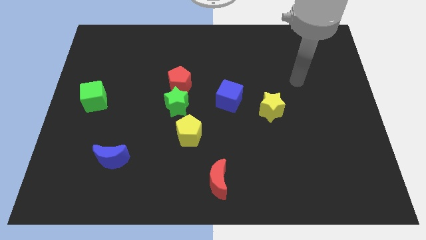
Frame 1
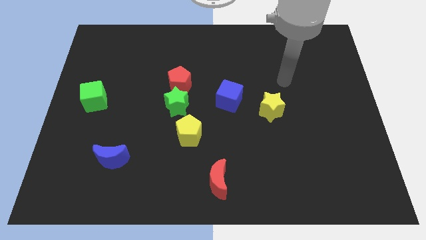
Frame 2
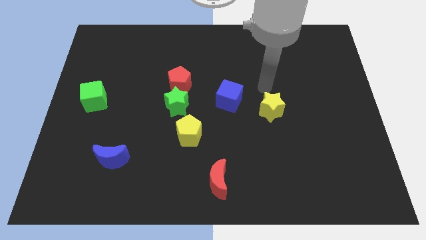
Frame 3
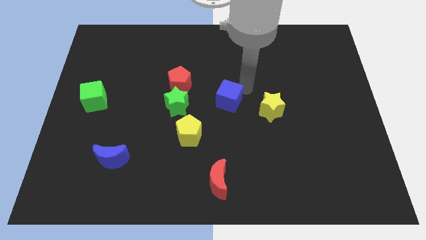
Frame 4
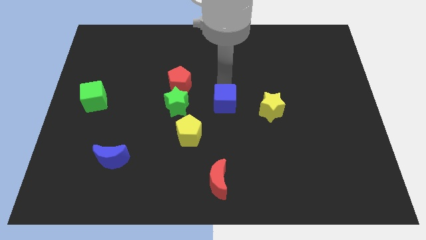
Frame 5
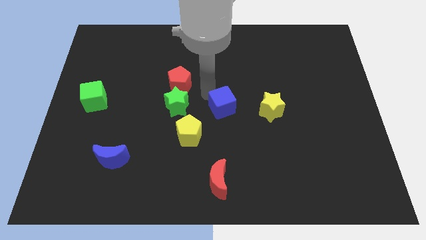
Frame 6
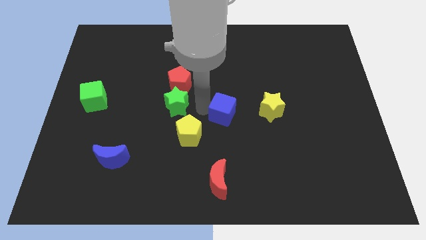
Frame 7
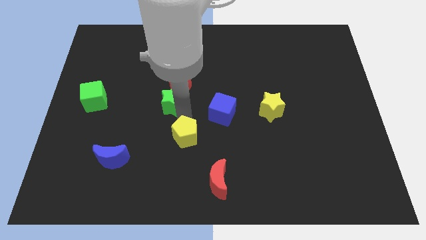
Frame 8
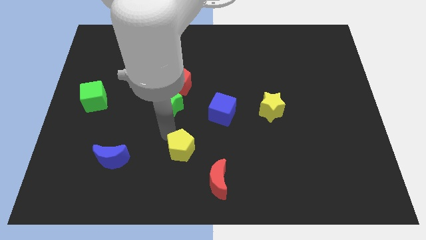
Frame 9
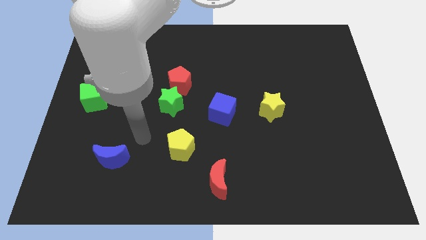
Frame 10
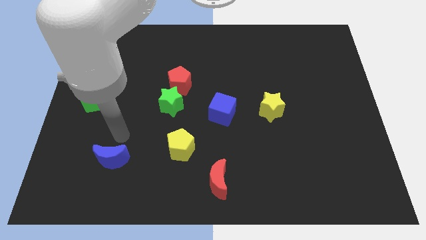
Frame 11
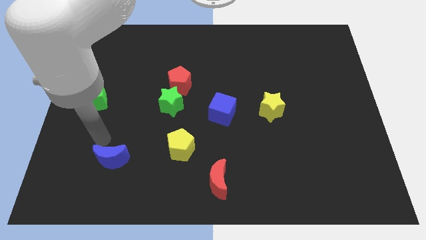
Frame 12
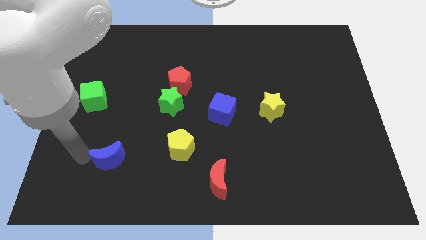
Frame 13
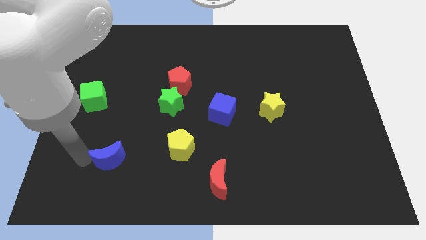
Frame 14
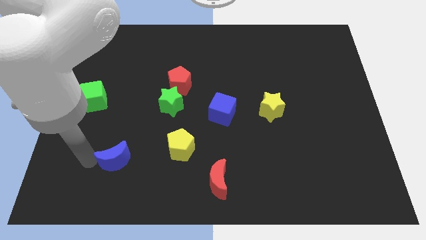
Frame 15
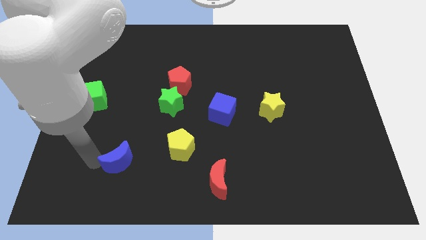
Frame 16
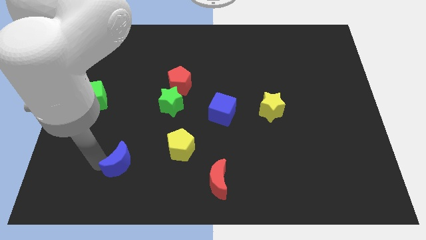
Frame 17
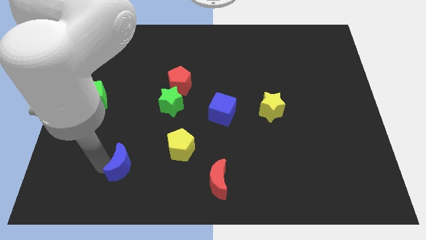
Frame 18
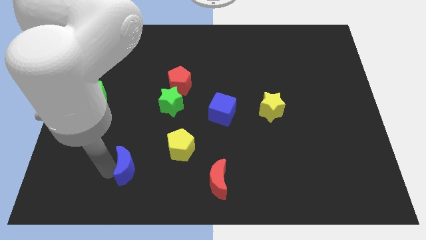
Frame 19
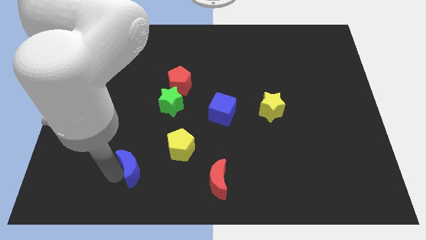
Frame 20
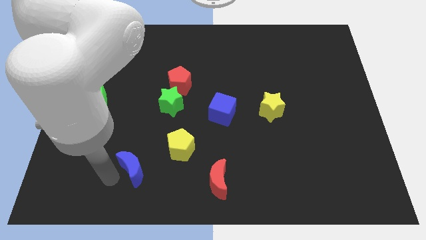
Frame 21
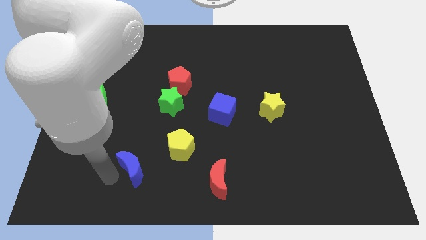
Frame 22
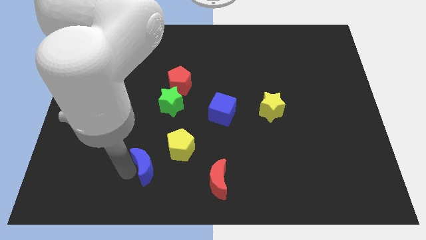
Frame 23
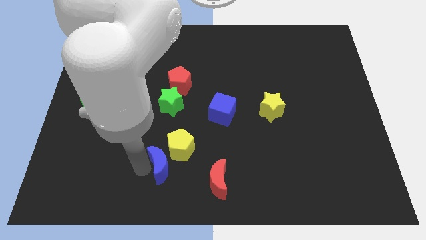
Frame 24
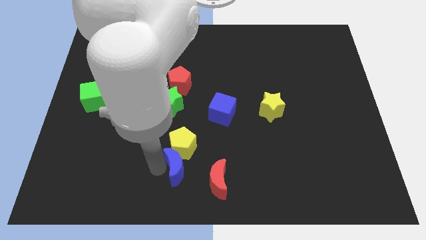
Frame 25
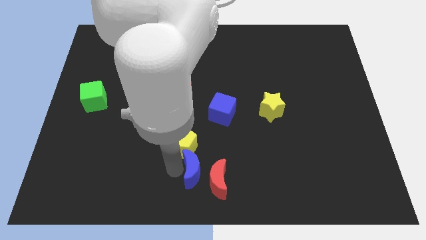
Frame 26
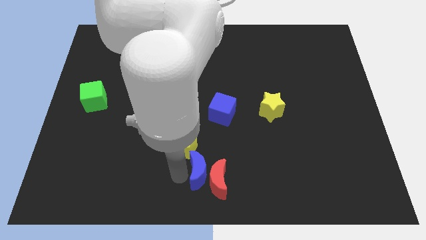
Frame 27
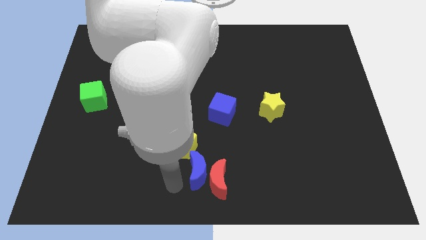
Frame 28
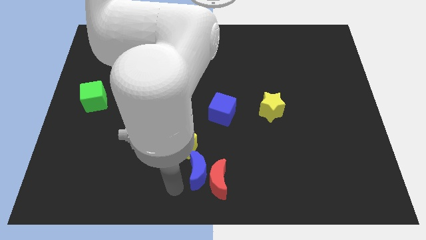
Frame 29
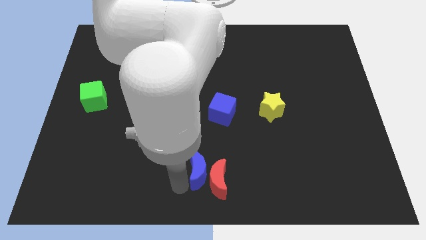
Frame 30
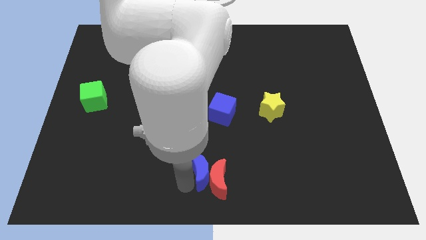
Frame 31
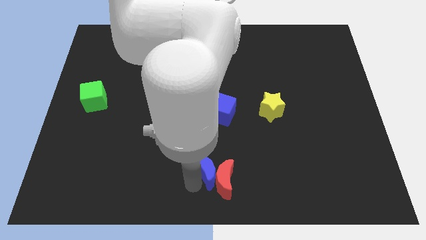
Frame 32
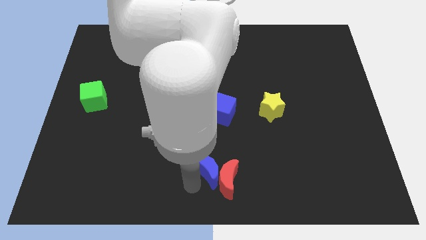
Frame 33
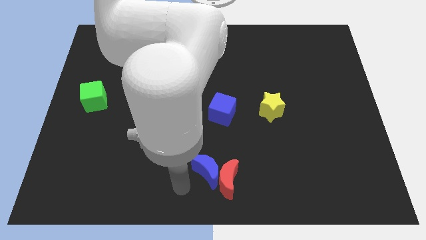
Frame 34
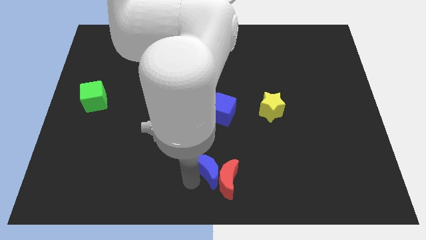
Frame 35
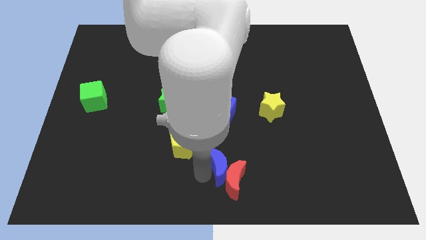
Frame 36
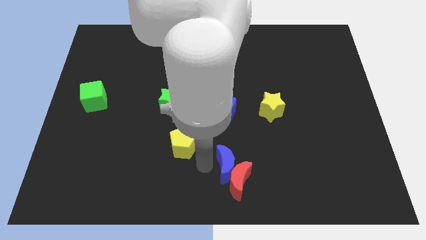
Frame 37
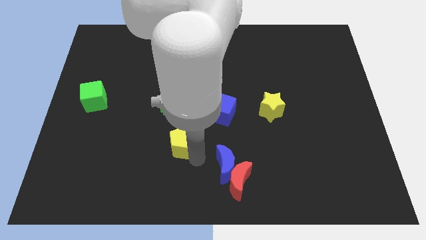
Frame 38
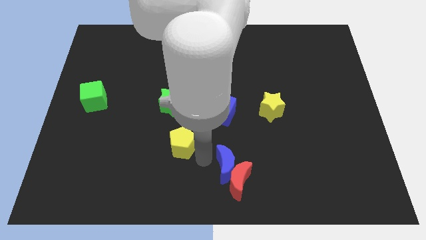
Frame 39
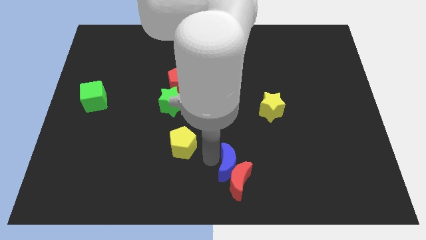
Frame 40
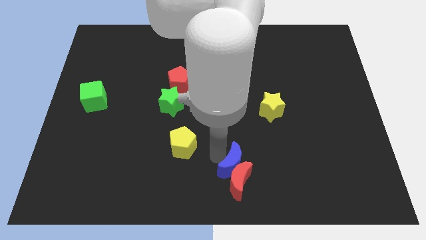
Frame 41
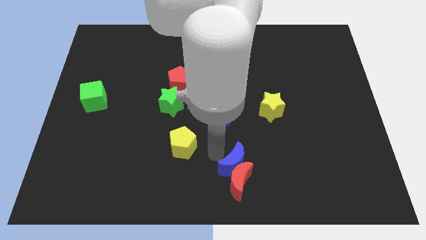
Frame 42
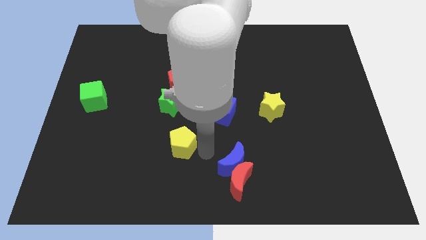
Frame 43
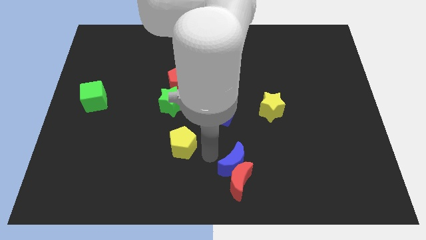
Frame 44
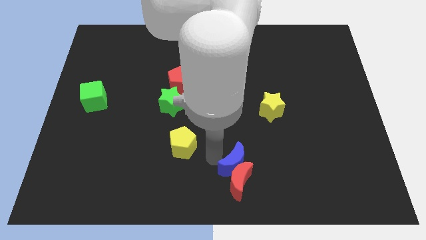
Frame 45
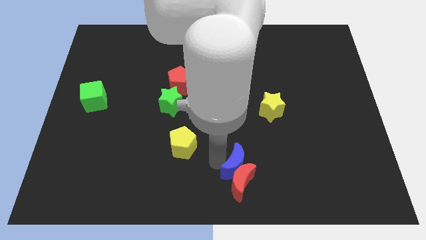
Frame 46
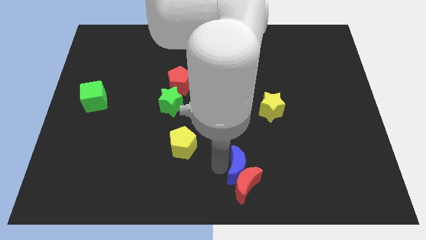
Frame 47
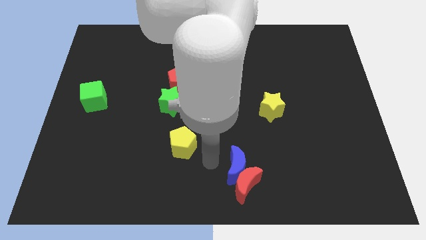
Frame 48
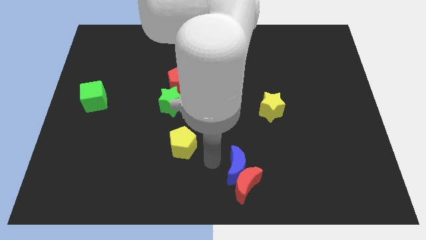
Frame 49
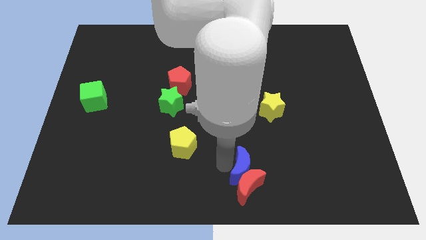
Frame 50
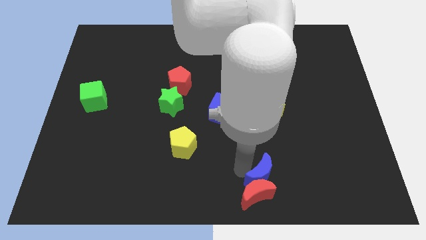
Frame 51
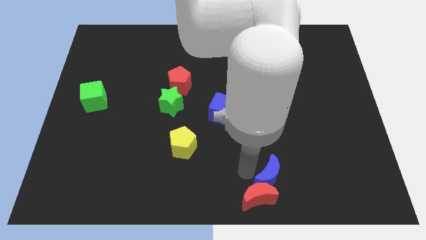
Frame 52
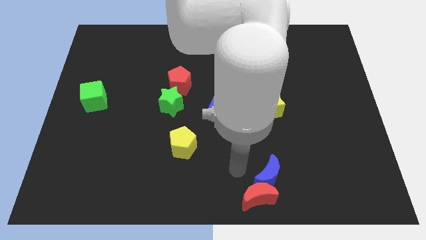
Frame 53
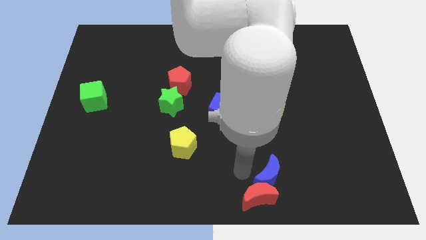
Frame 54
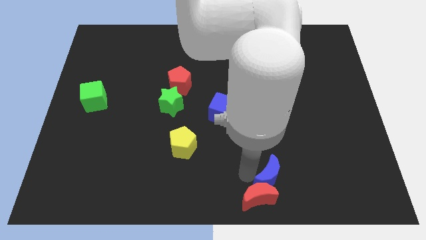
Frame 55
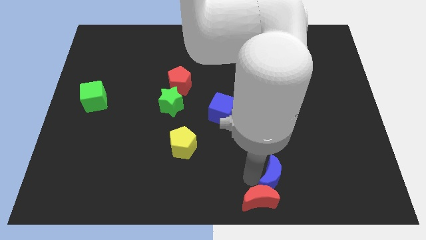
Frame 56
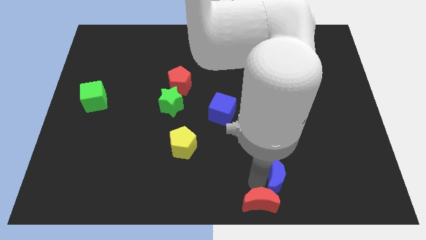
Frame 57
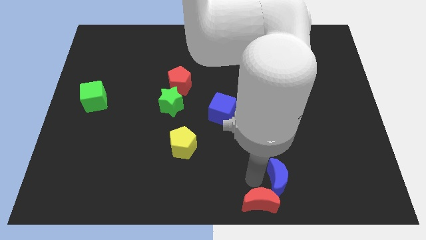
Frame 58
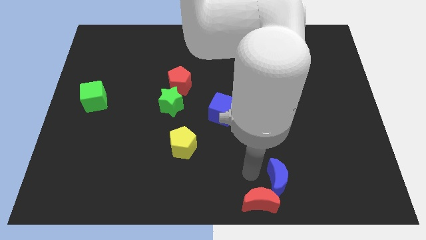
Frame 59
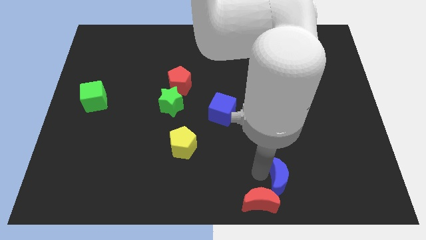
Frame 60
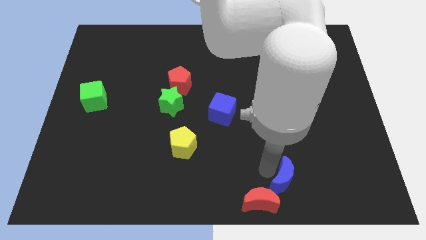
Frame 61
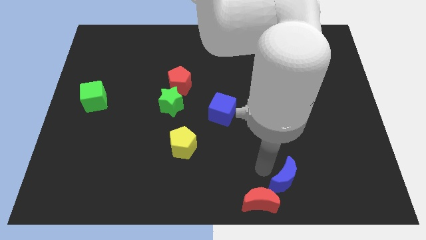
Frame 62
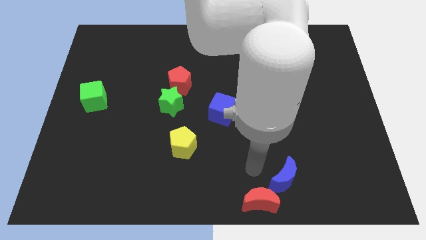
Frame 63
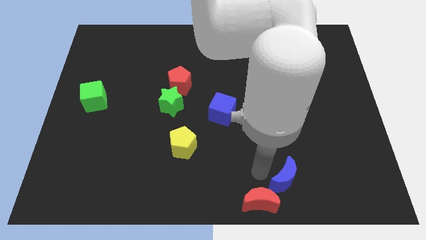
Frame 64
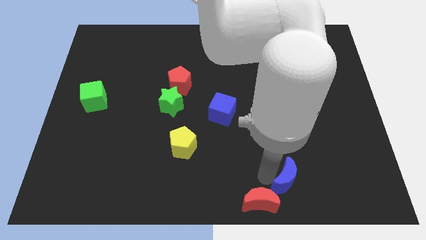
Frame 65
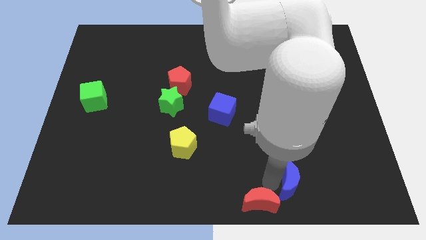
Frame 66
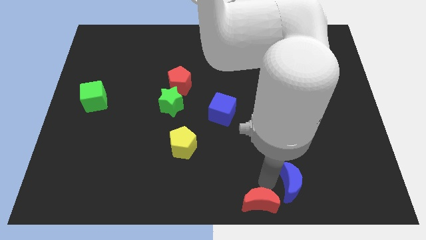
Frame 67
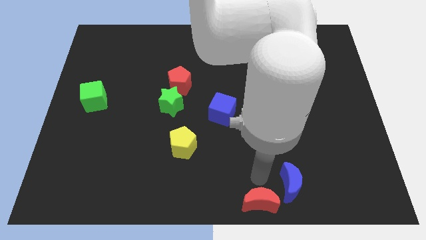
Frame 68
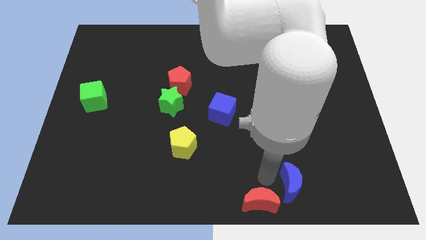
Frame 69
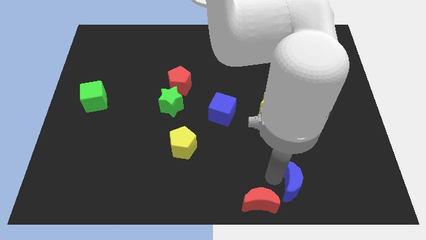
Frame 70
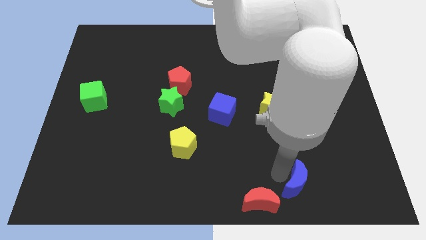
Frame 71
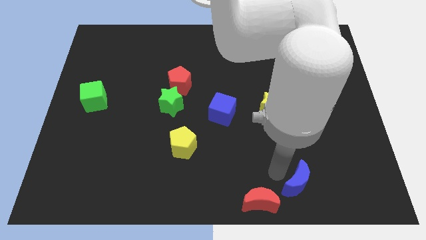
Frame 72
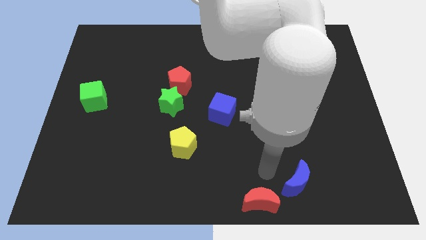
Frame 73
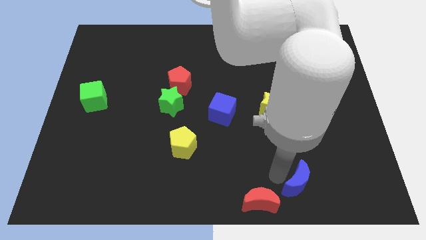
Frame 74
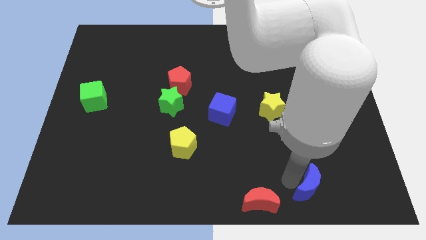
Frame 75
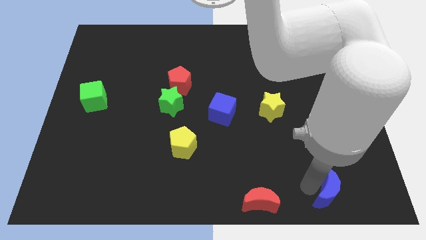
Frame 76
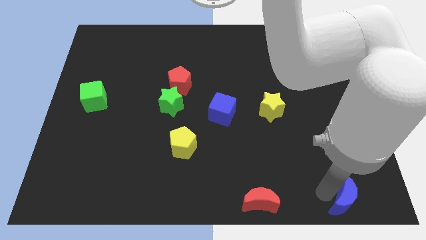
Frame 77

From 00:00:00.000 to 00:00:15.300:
slide the blue moon to the bottom right
